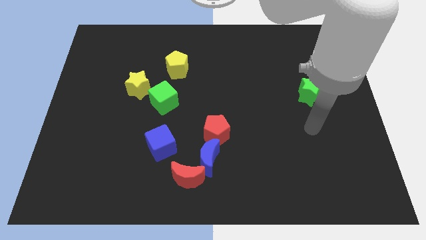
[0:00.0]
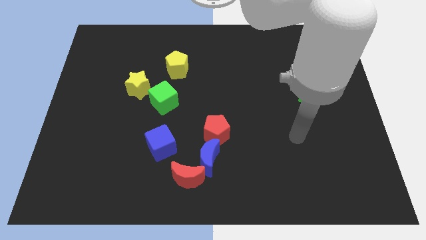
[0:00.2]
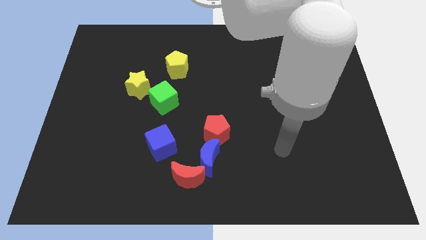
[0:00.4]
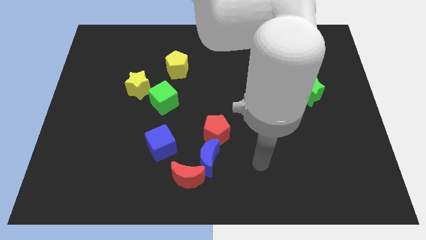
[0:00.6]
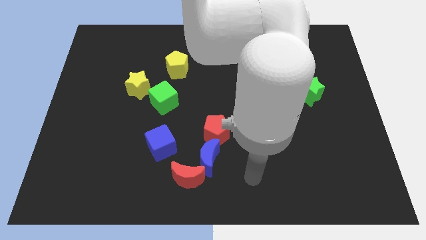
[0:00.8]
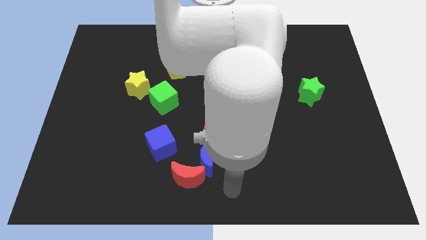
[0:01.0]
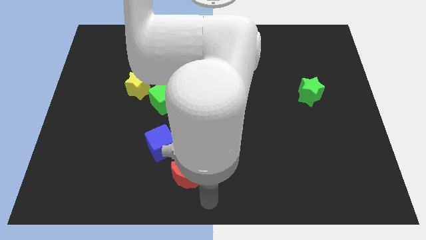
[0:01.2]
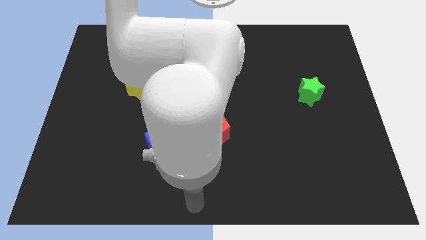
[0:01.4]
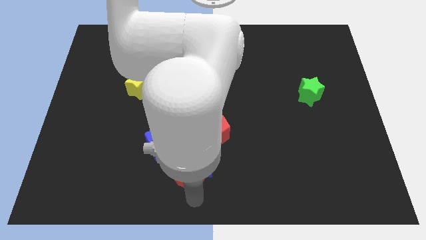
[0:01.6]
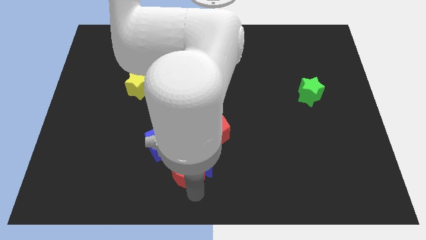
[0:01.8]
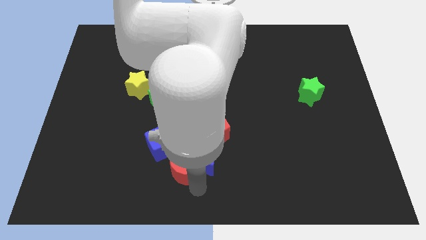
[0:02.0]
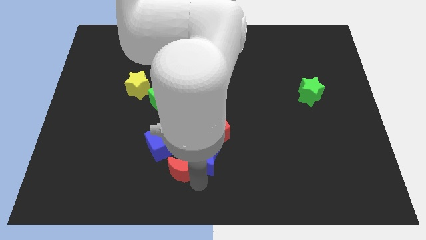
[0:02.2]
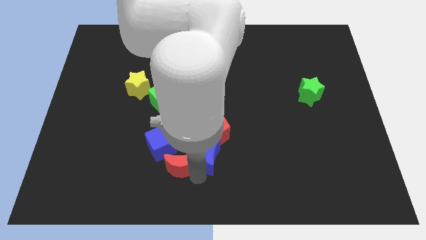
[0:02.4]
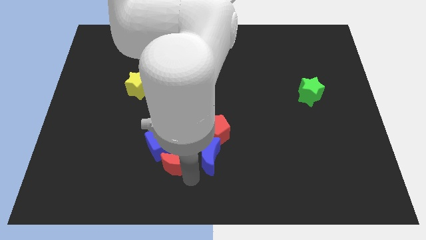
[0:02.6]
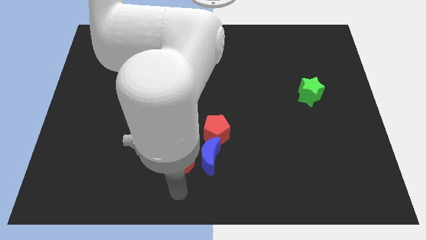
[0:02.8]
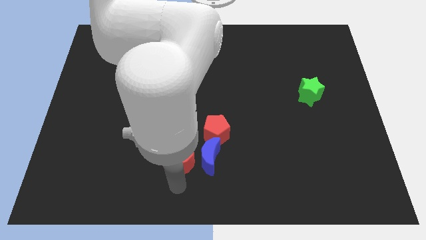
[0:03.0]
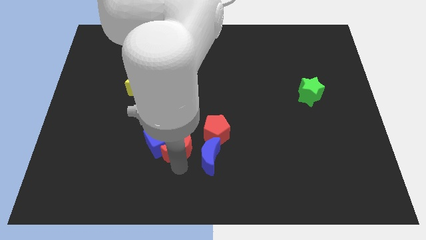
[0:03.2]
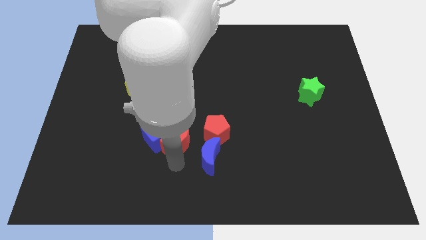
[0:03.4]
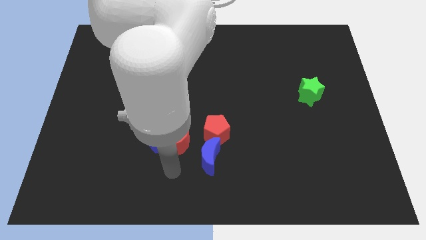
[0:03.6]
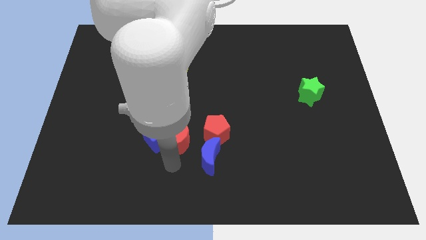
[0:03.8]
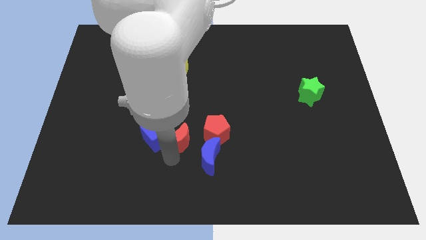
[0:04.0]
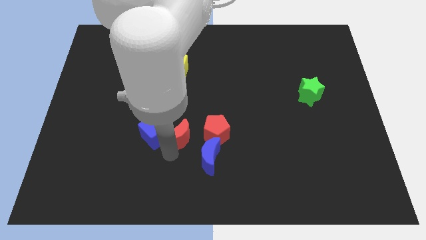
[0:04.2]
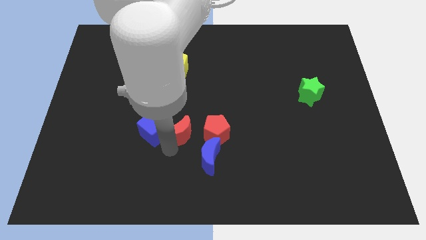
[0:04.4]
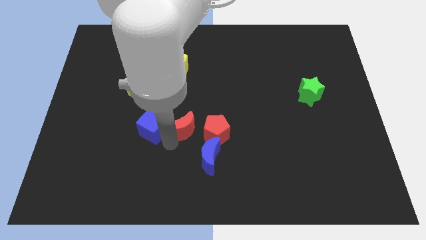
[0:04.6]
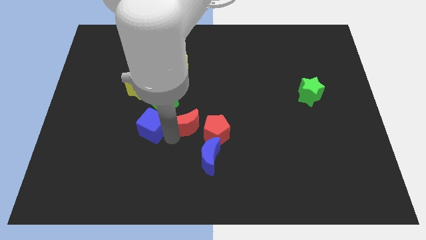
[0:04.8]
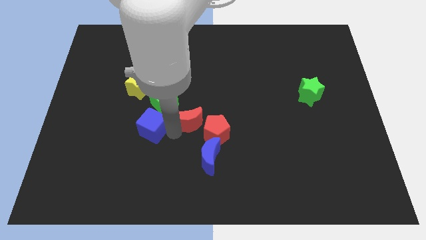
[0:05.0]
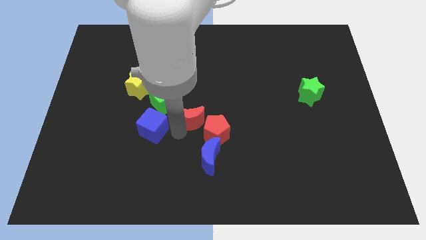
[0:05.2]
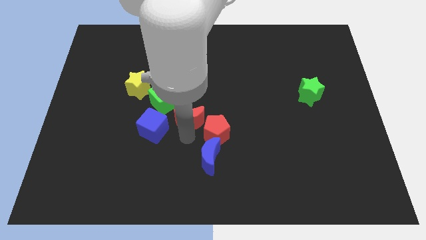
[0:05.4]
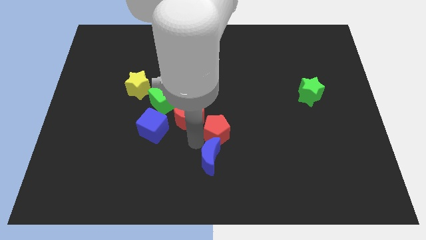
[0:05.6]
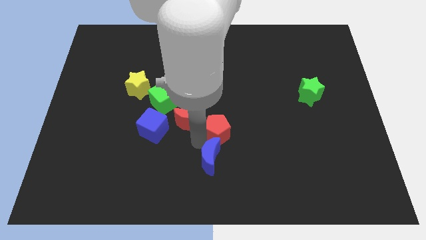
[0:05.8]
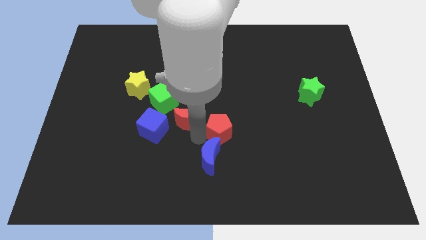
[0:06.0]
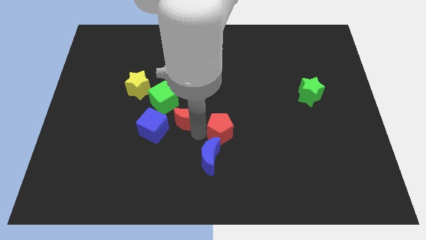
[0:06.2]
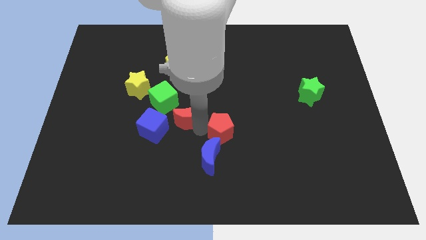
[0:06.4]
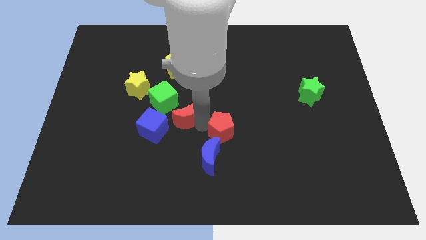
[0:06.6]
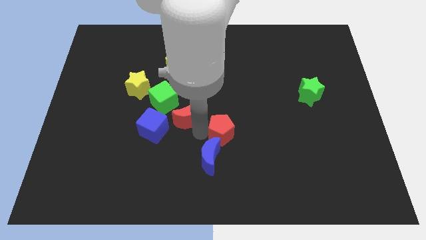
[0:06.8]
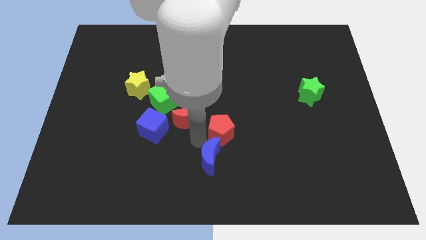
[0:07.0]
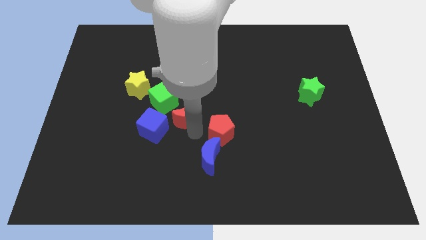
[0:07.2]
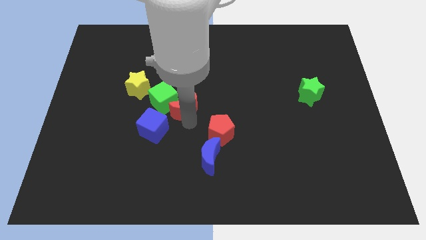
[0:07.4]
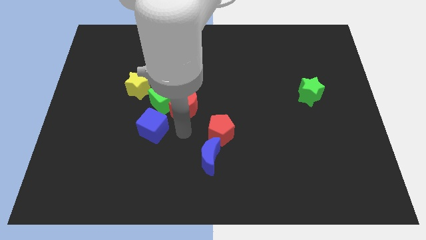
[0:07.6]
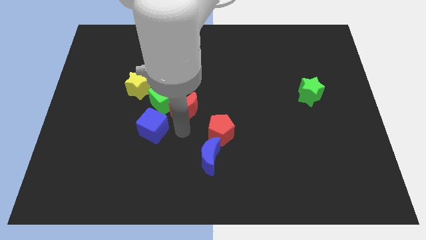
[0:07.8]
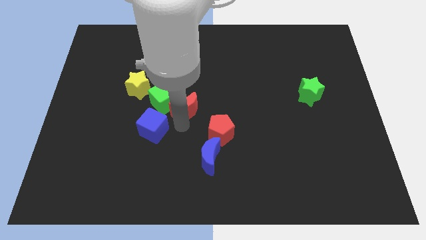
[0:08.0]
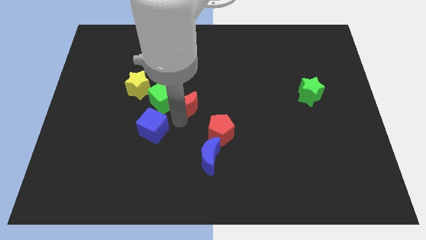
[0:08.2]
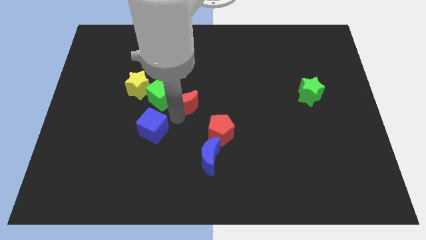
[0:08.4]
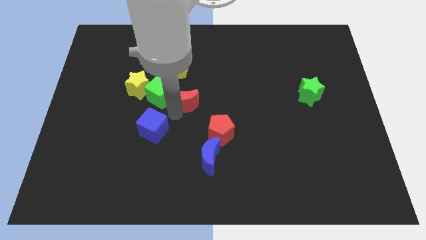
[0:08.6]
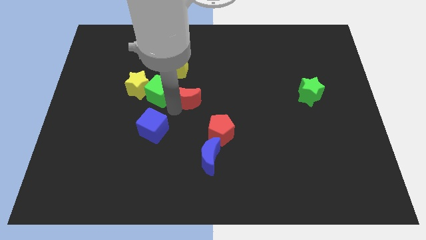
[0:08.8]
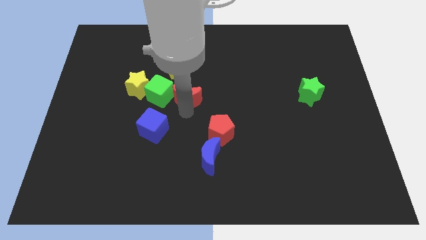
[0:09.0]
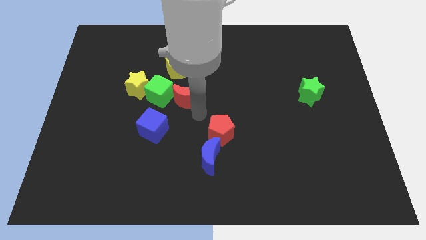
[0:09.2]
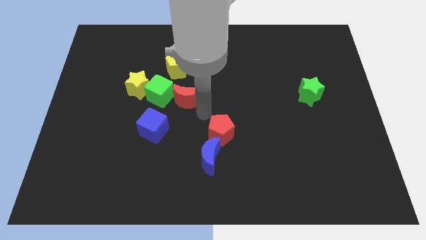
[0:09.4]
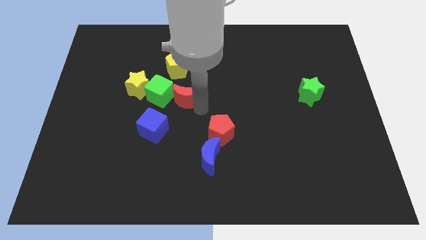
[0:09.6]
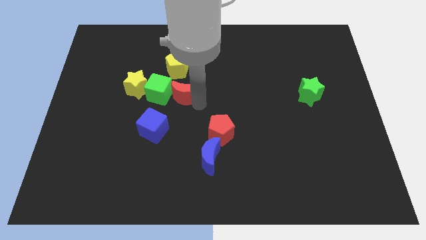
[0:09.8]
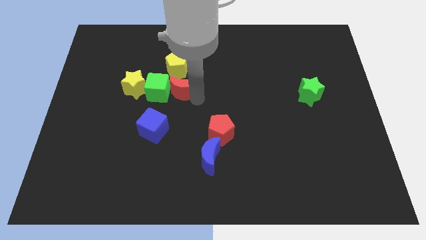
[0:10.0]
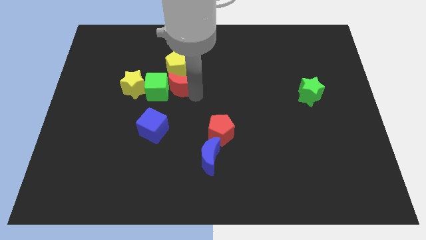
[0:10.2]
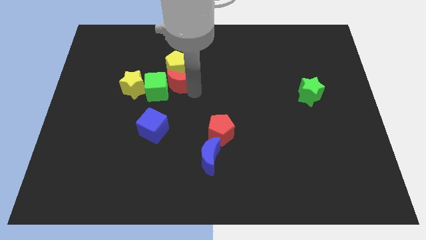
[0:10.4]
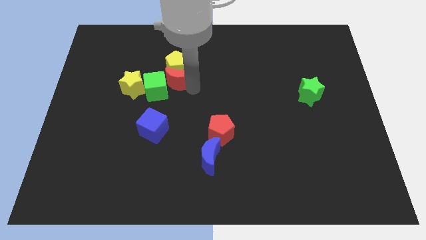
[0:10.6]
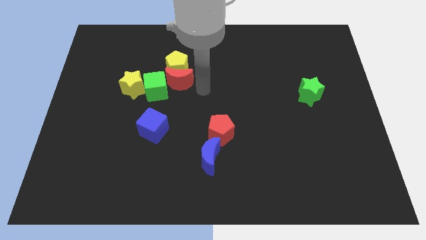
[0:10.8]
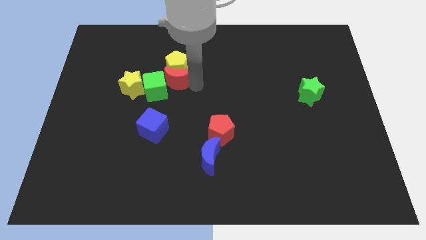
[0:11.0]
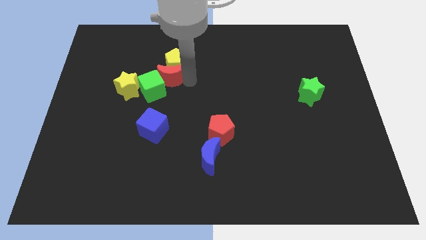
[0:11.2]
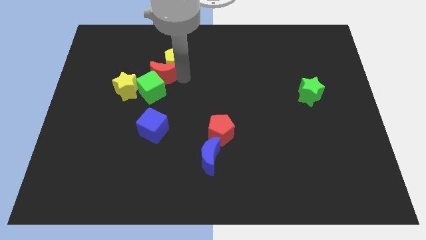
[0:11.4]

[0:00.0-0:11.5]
put the red moon to the left of the yellow pentagon
